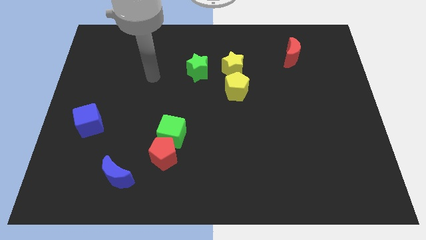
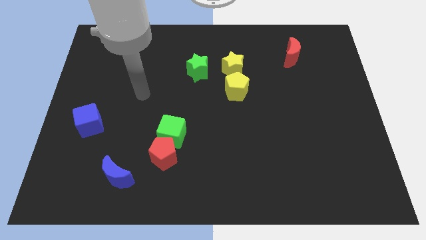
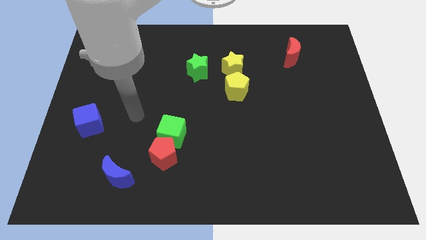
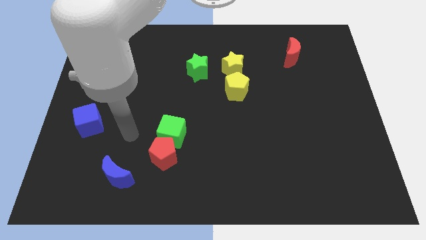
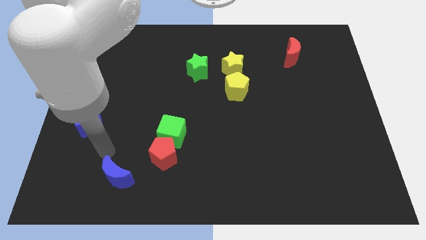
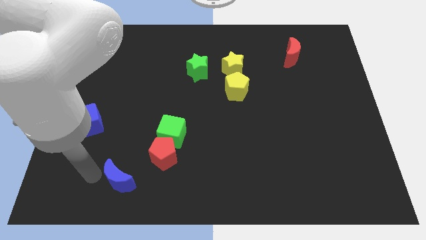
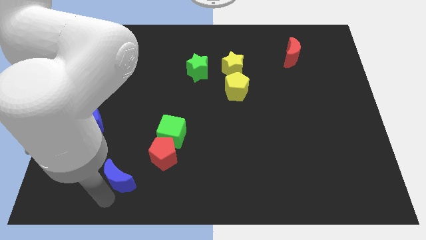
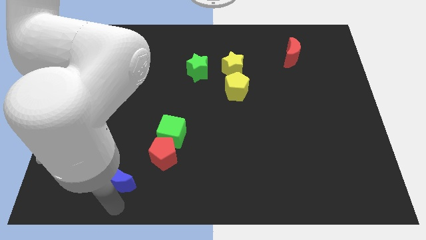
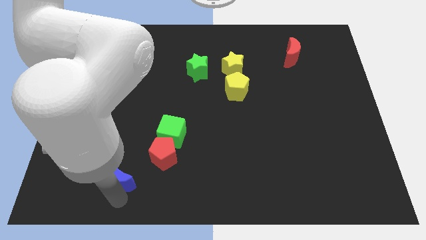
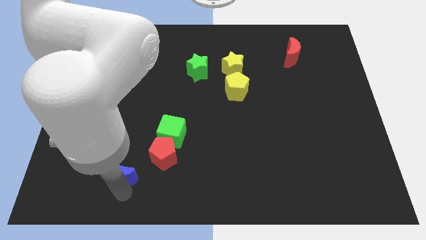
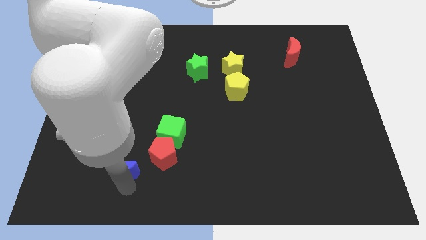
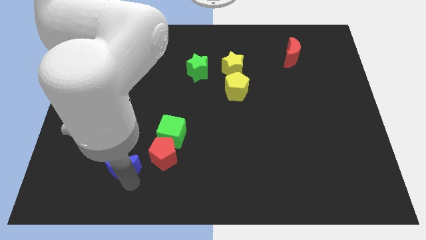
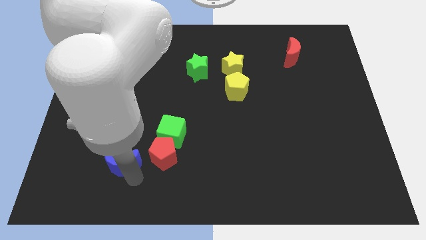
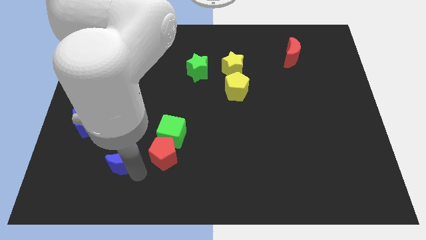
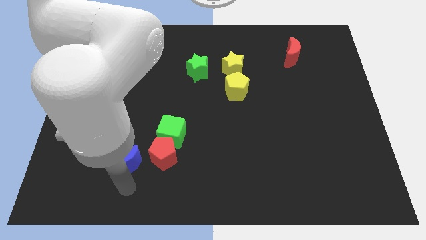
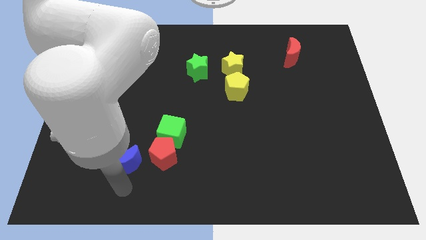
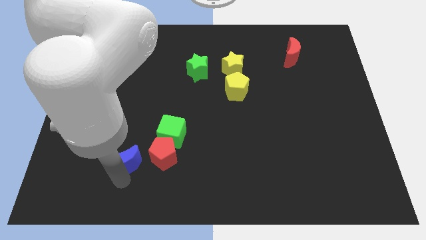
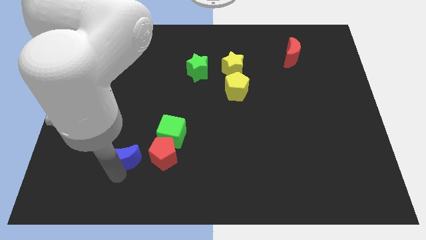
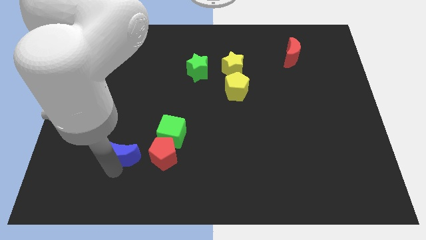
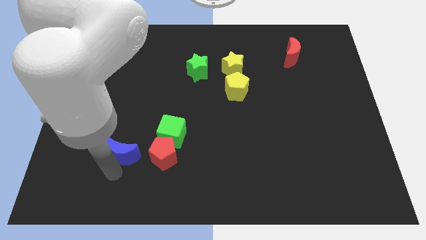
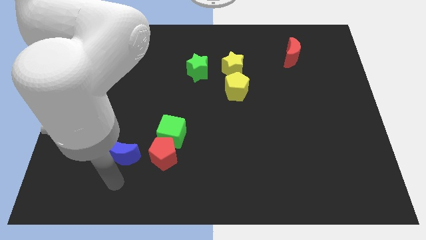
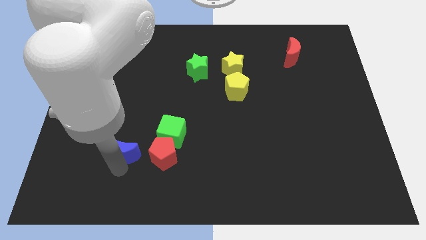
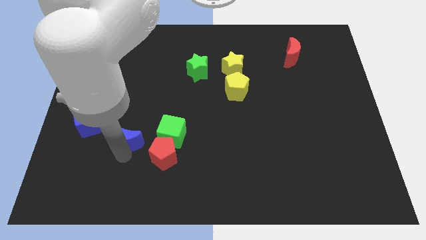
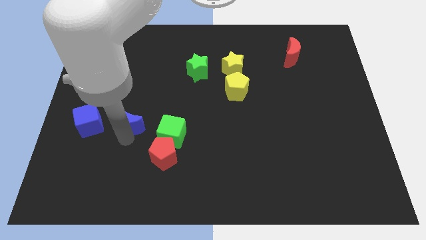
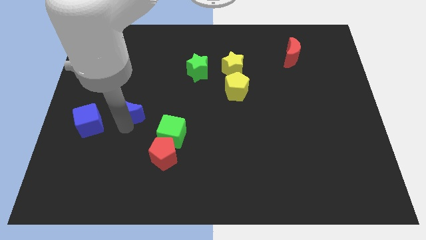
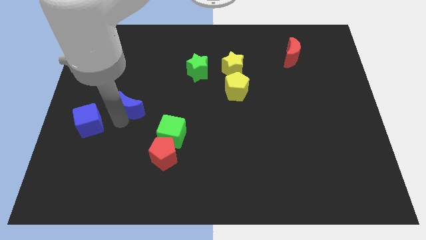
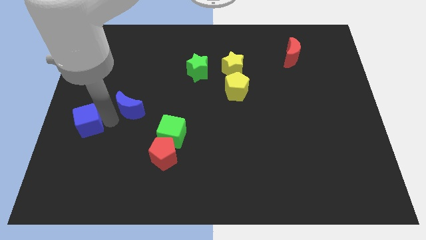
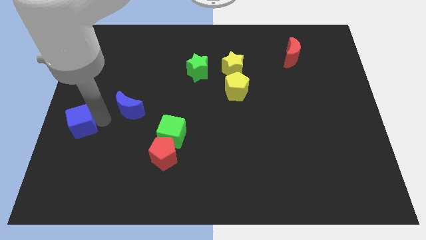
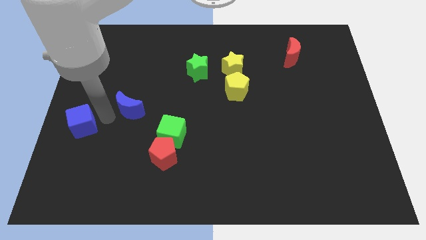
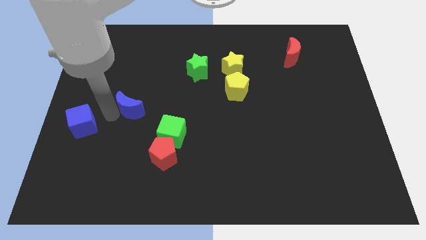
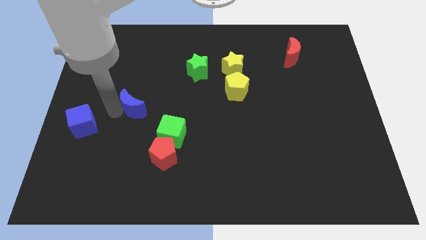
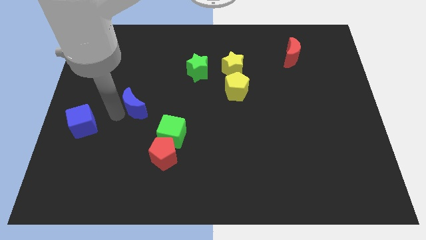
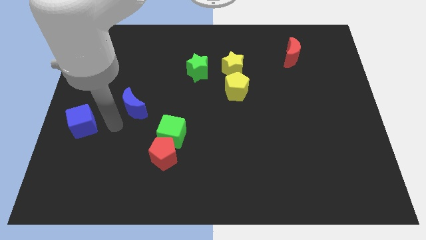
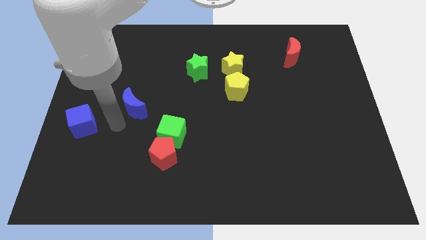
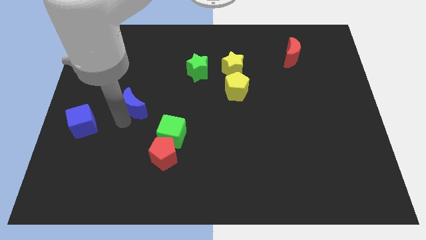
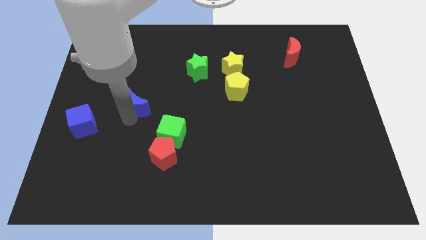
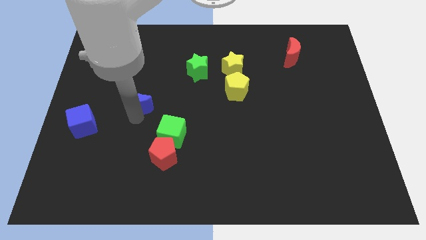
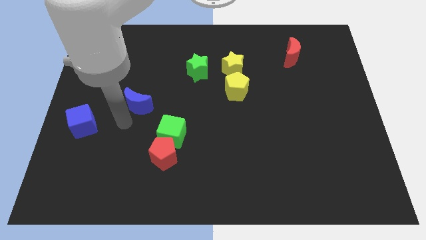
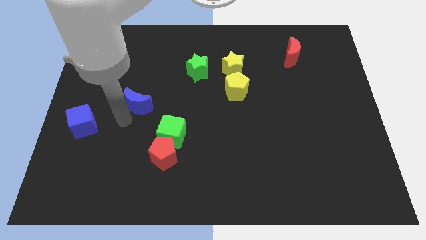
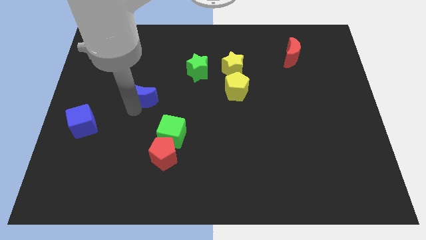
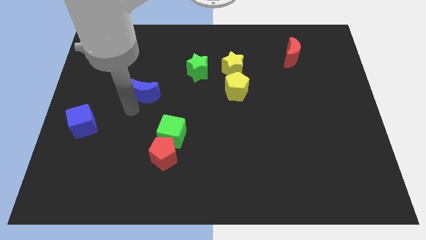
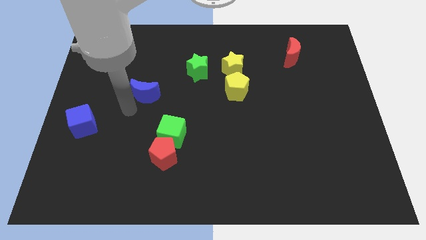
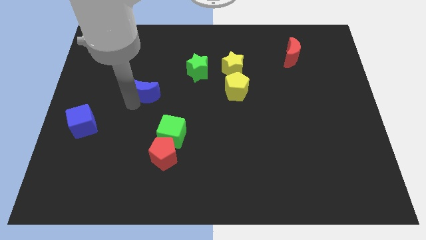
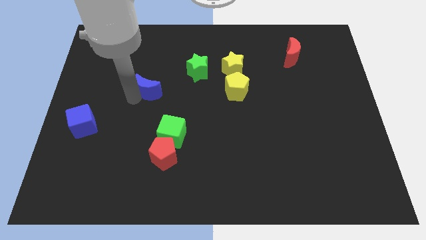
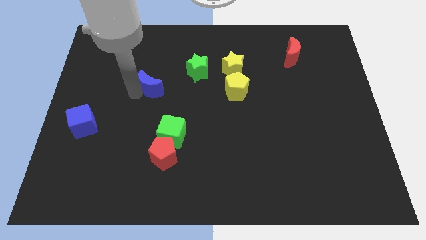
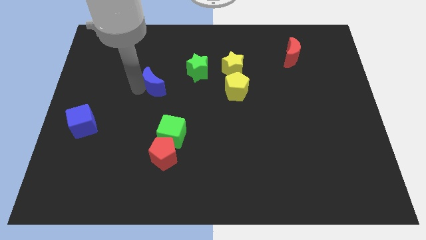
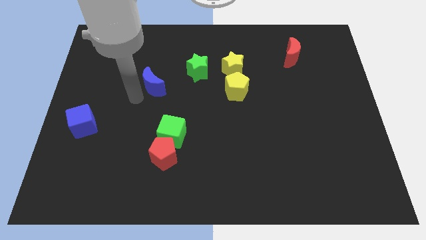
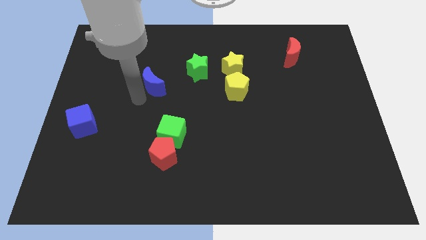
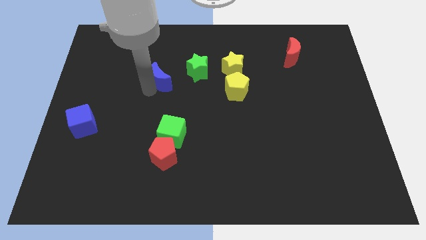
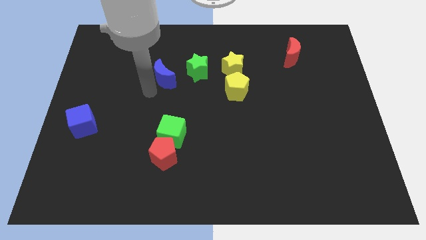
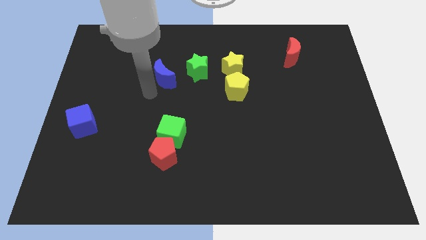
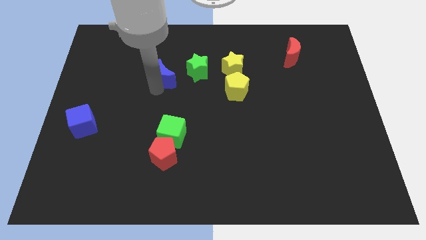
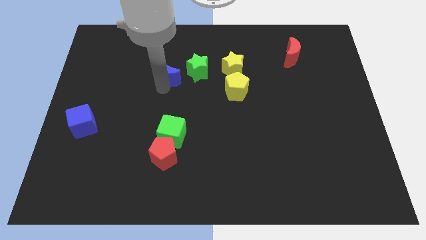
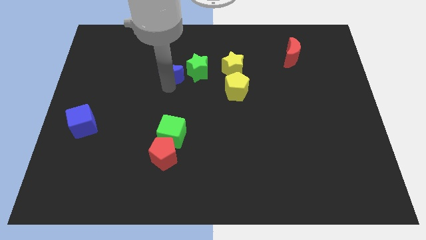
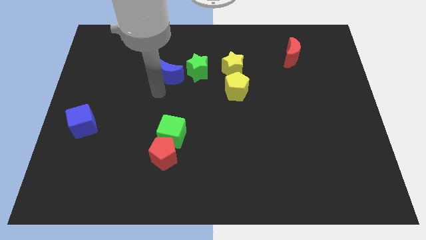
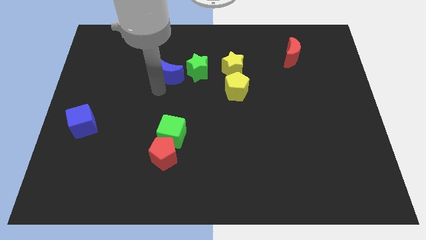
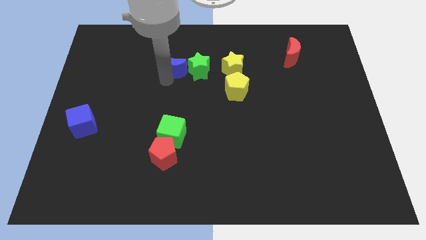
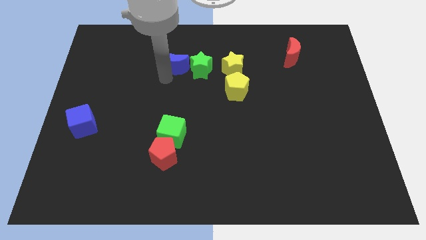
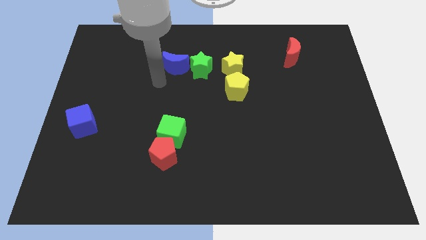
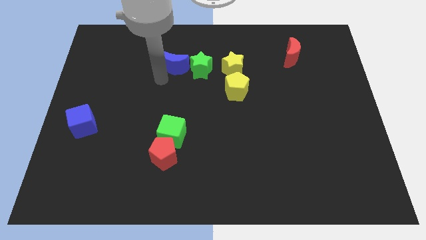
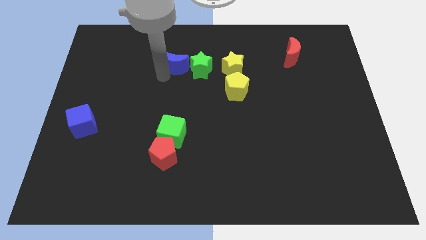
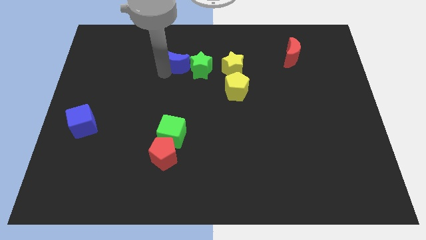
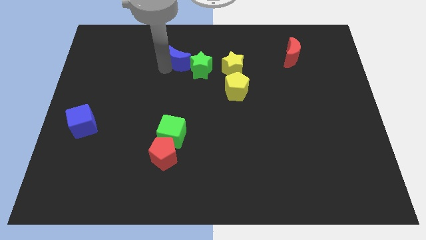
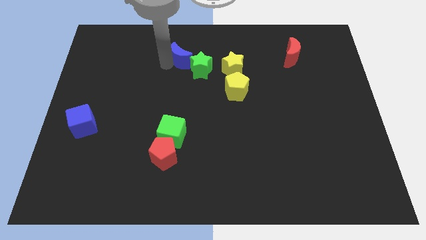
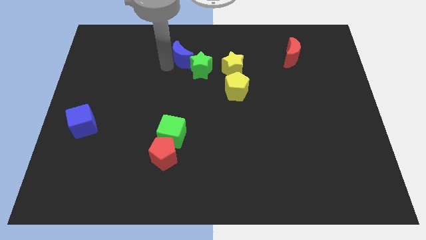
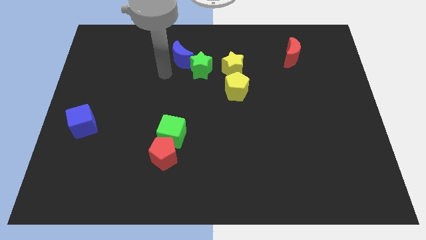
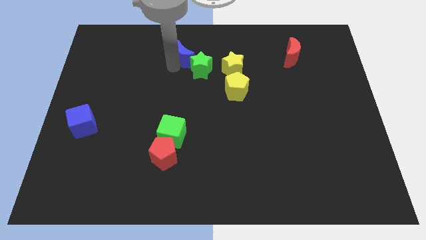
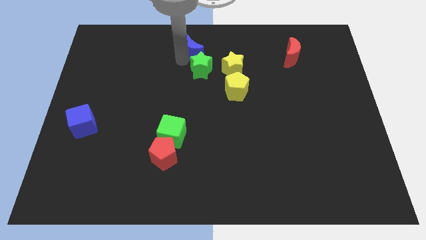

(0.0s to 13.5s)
put the blue moon to the top side

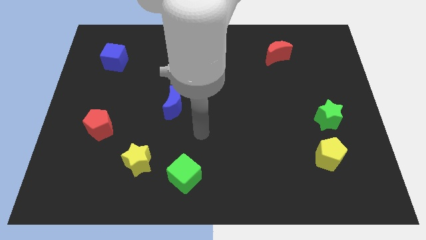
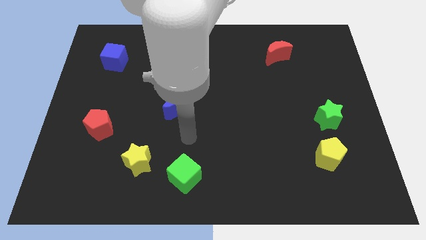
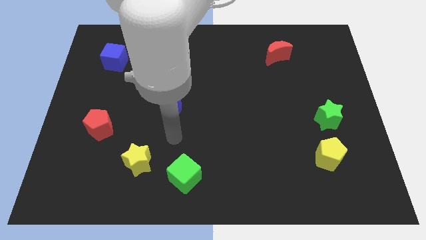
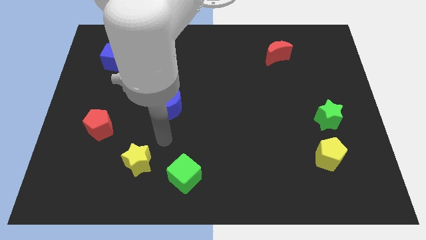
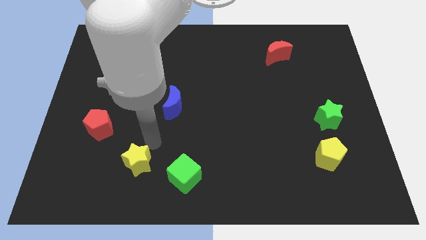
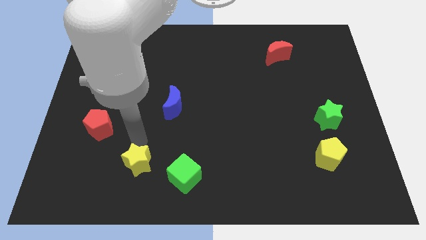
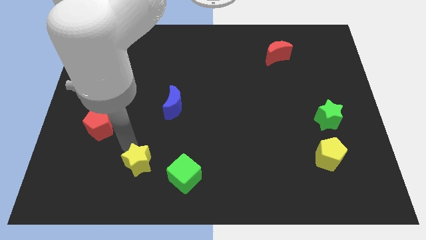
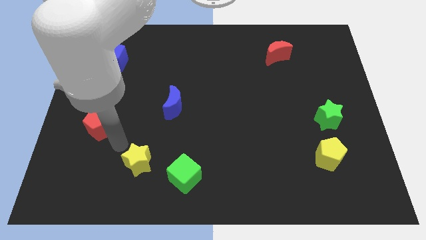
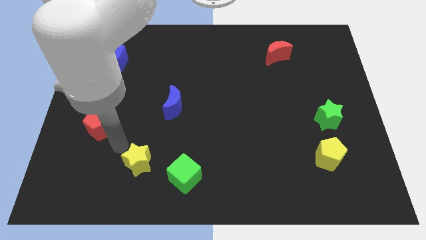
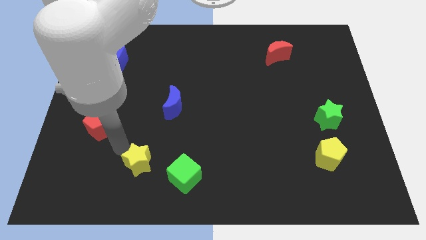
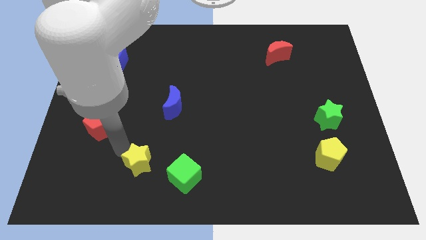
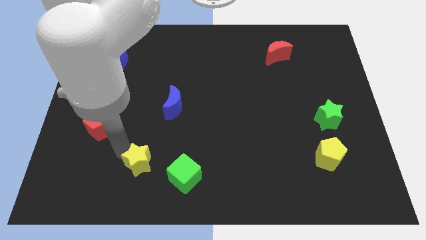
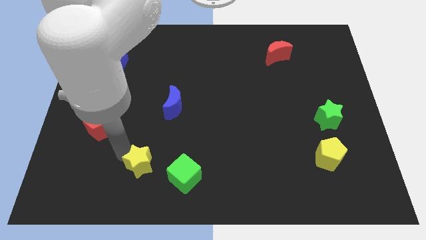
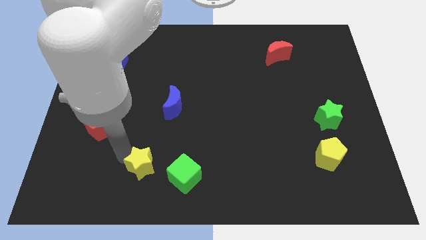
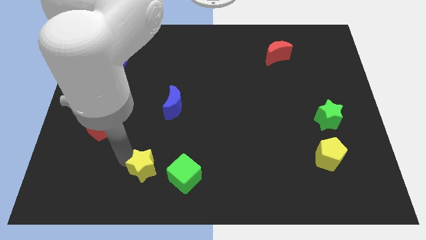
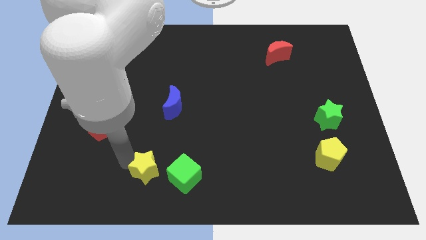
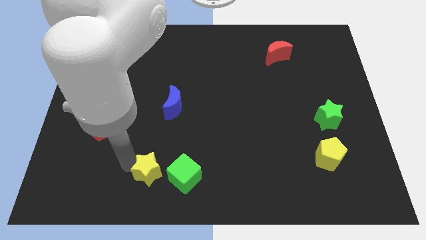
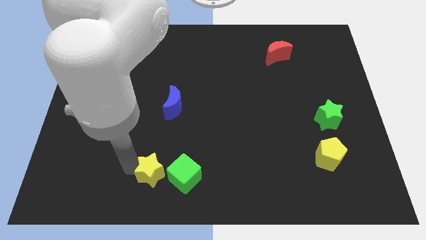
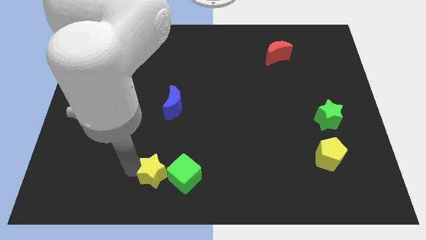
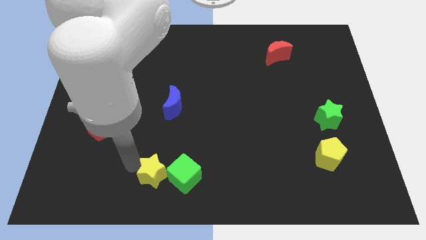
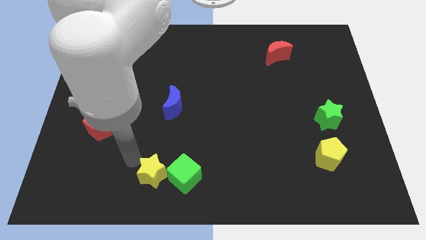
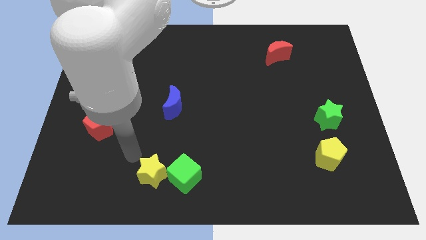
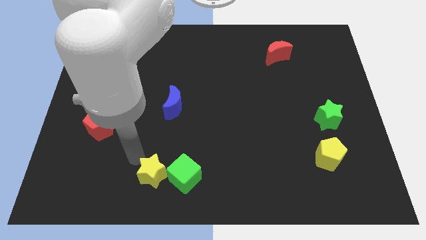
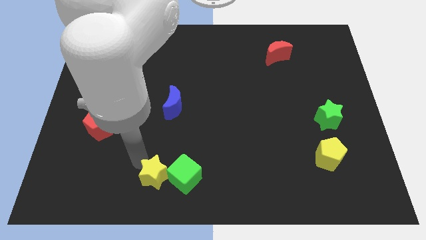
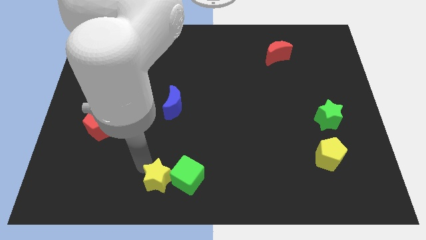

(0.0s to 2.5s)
push the yellow star to the bottom
